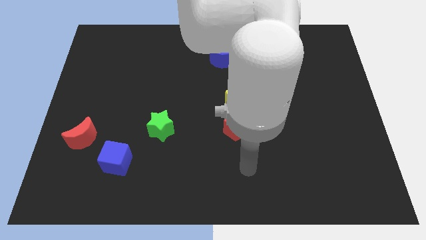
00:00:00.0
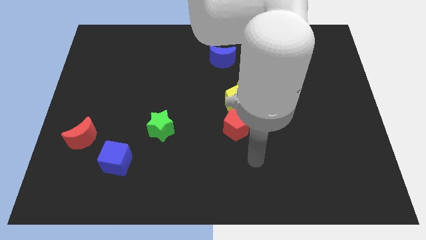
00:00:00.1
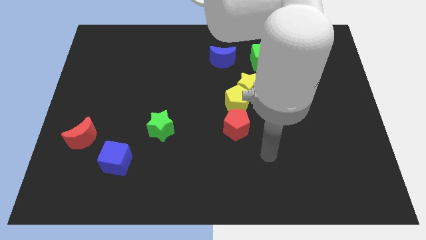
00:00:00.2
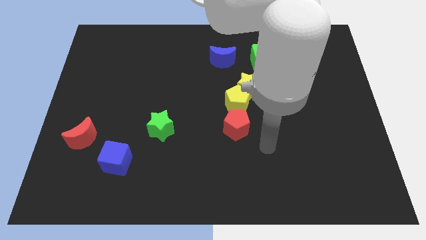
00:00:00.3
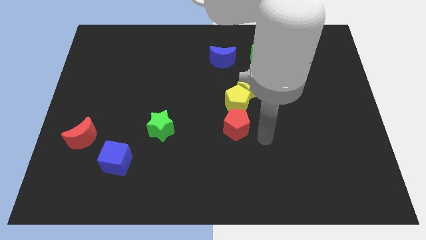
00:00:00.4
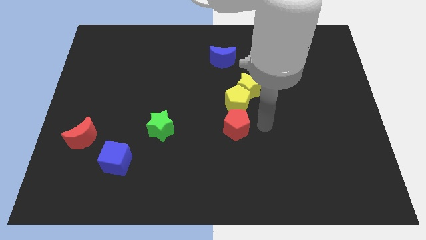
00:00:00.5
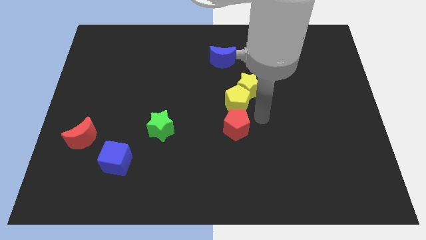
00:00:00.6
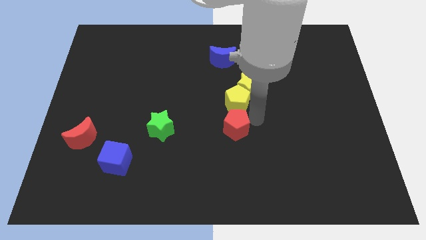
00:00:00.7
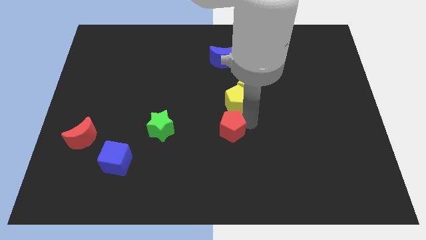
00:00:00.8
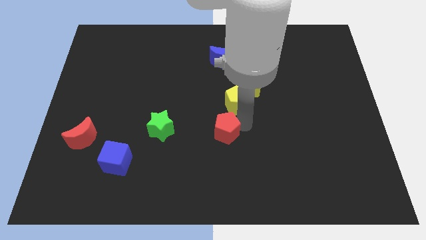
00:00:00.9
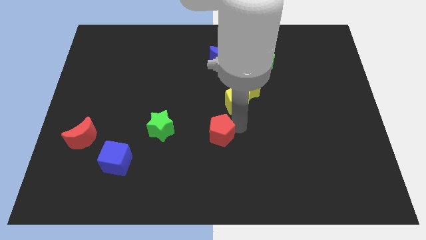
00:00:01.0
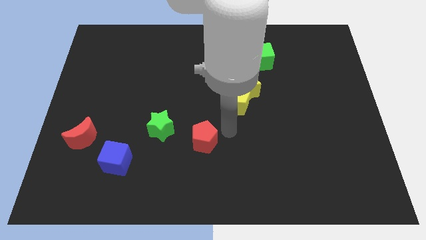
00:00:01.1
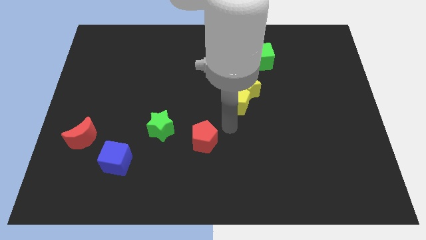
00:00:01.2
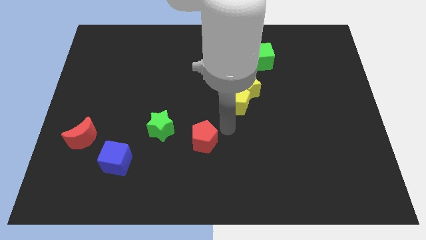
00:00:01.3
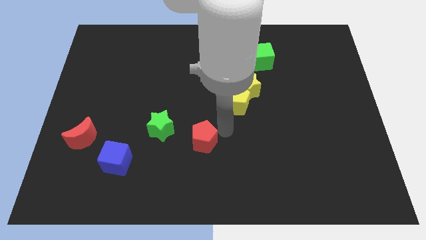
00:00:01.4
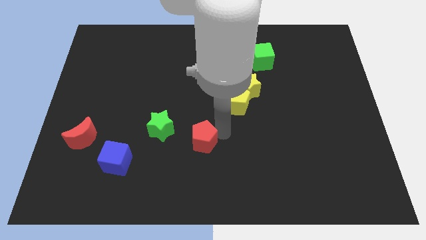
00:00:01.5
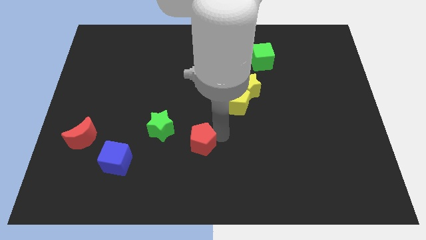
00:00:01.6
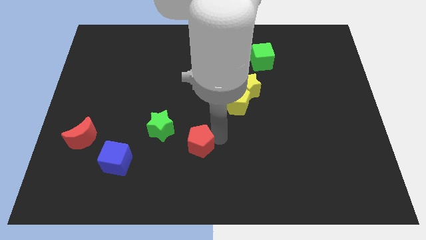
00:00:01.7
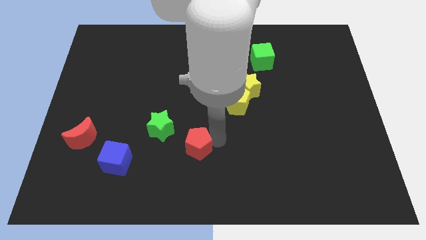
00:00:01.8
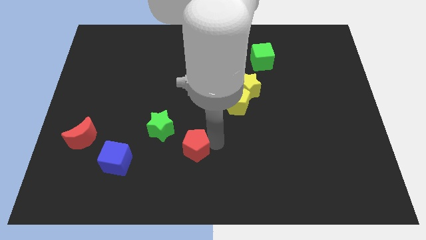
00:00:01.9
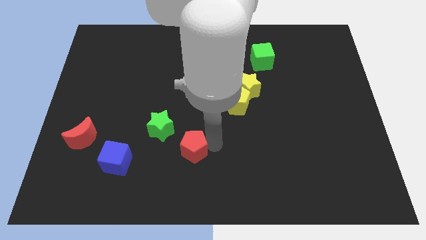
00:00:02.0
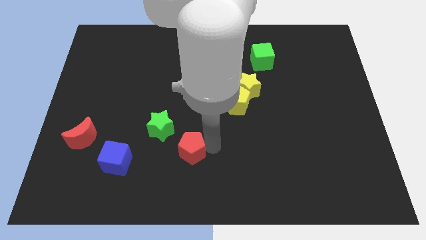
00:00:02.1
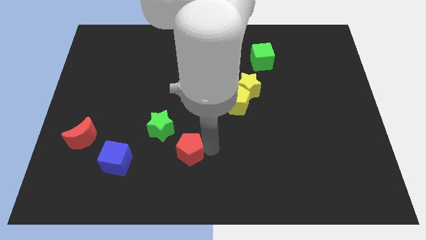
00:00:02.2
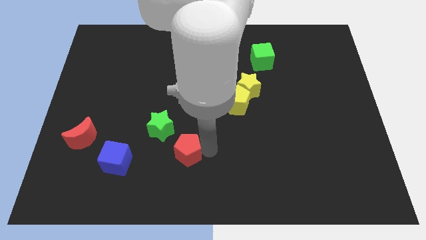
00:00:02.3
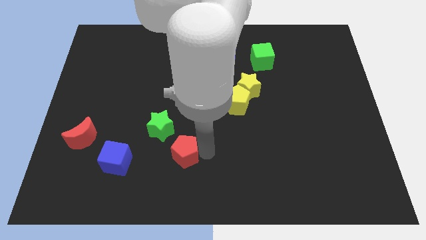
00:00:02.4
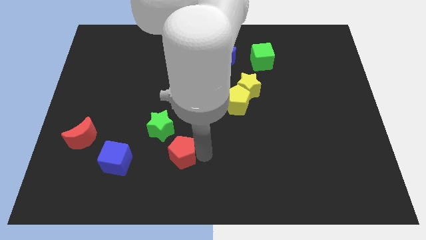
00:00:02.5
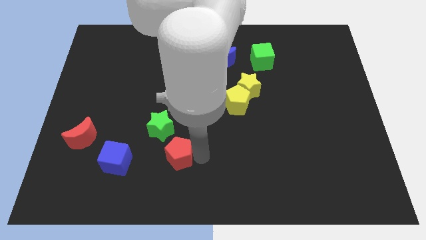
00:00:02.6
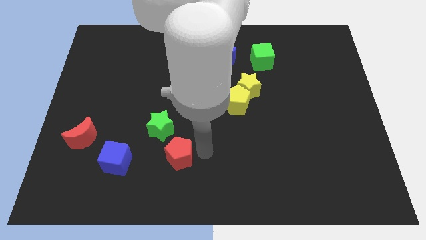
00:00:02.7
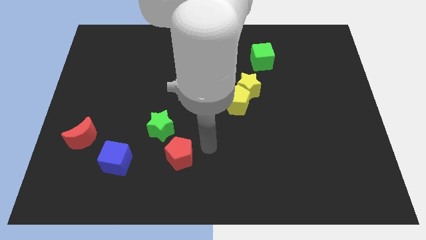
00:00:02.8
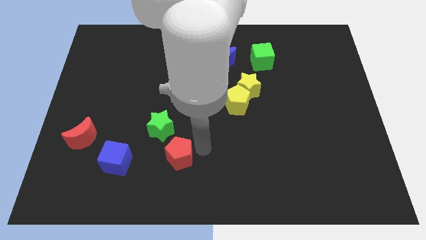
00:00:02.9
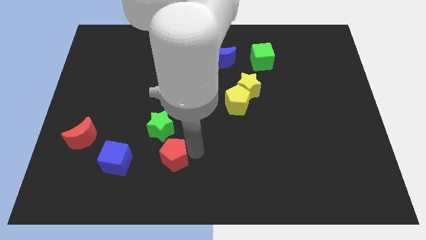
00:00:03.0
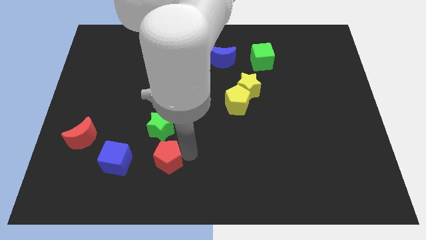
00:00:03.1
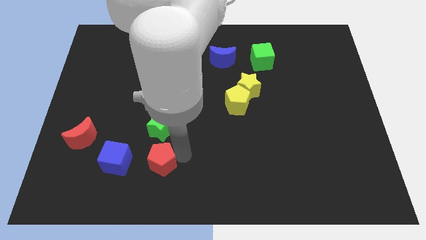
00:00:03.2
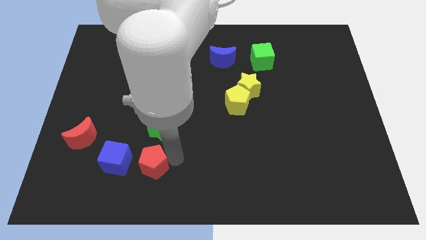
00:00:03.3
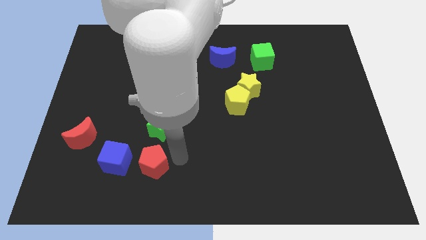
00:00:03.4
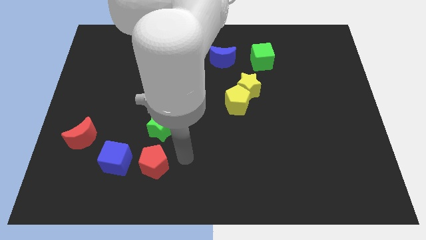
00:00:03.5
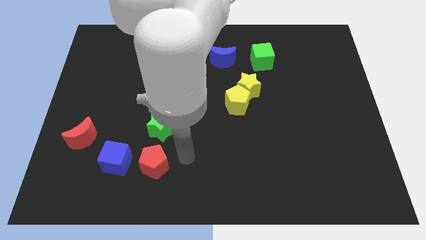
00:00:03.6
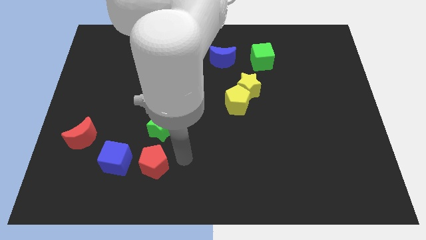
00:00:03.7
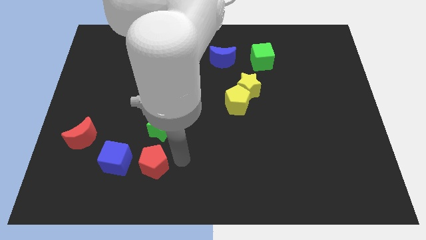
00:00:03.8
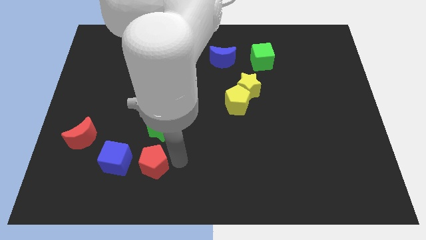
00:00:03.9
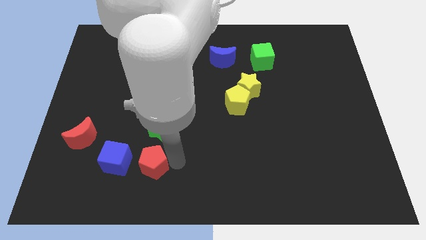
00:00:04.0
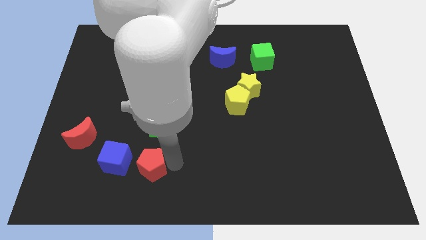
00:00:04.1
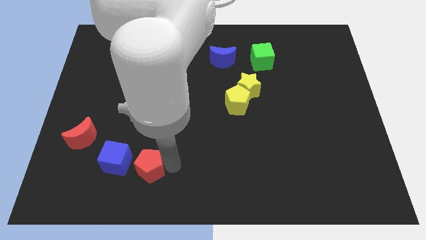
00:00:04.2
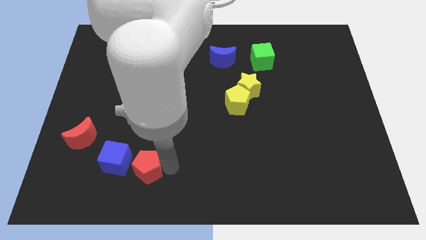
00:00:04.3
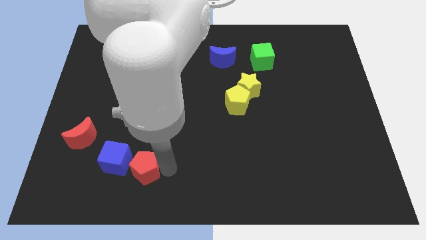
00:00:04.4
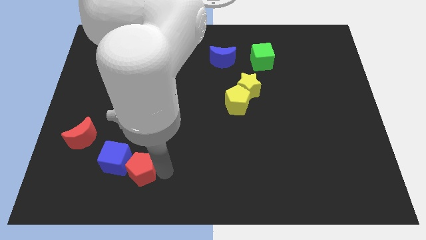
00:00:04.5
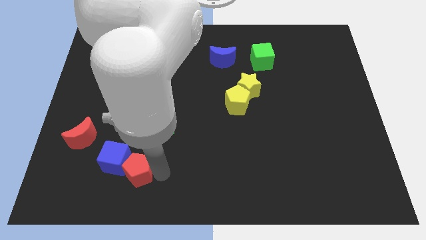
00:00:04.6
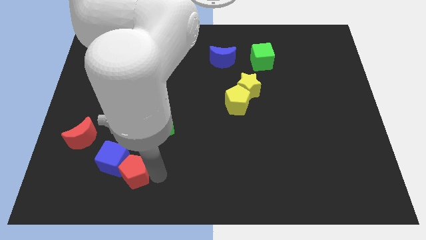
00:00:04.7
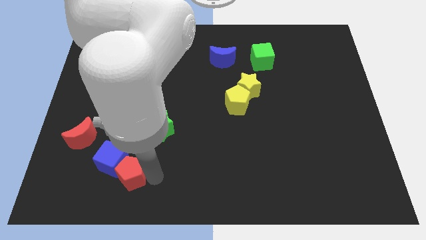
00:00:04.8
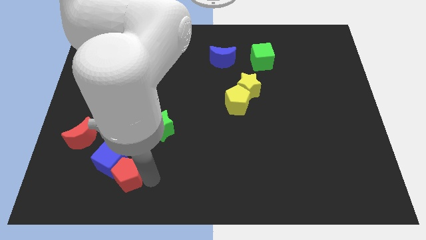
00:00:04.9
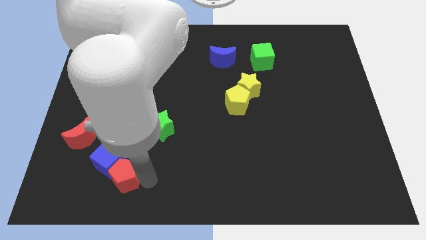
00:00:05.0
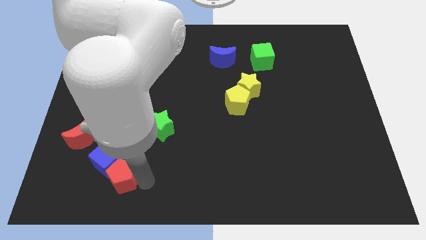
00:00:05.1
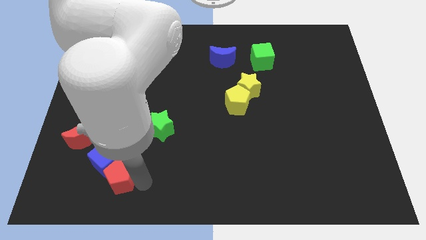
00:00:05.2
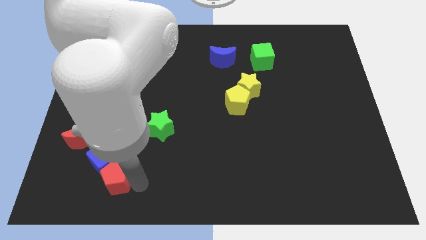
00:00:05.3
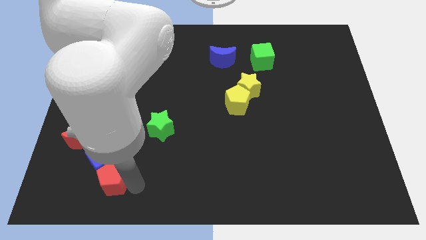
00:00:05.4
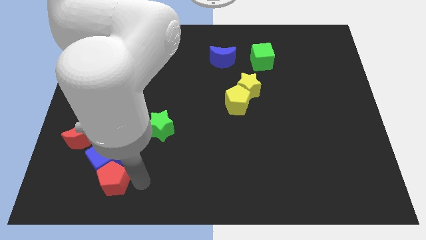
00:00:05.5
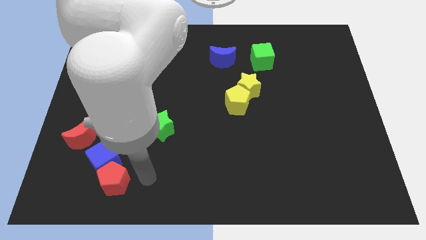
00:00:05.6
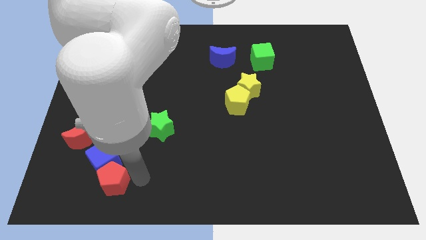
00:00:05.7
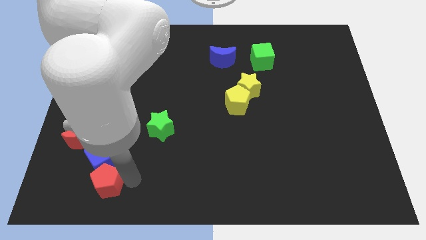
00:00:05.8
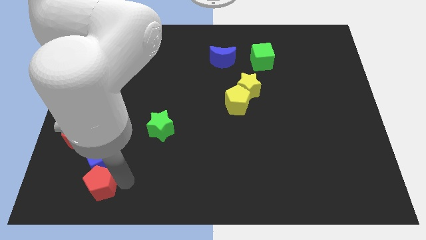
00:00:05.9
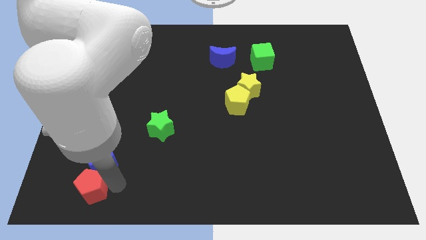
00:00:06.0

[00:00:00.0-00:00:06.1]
push the red pentagon to the bottom side of the red moon
